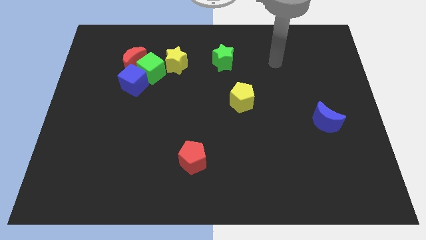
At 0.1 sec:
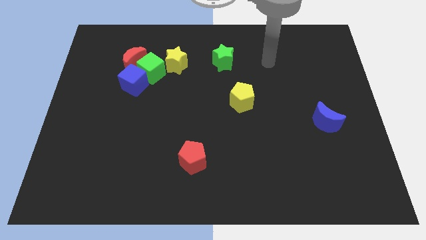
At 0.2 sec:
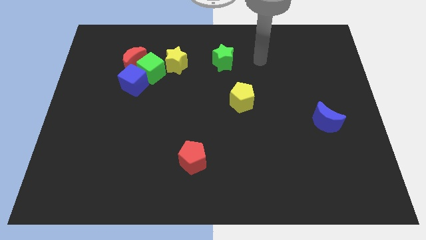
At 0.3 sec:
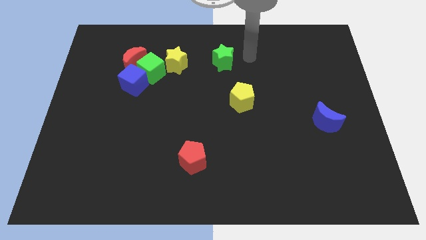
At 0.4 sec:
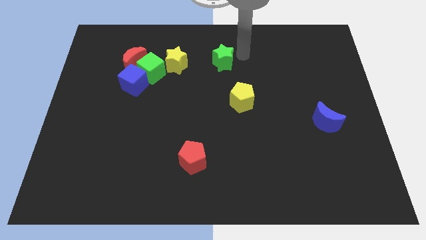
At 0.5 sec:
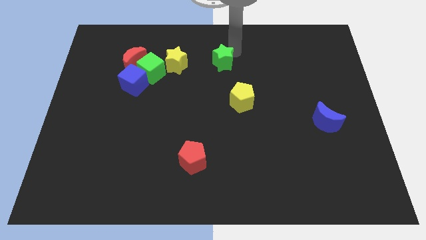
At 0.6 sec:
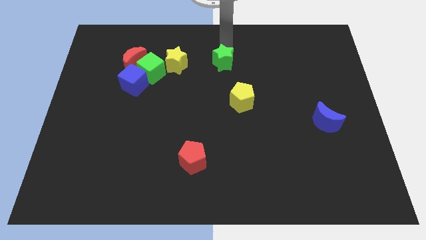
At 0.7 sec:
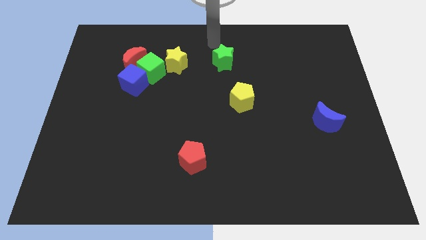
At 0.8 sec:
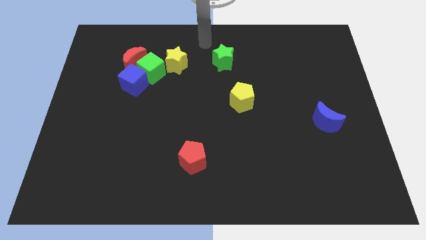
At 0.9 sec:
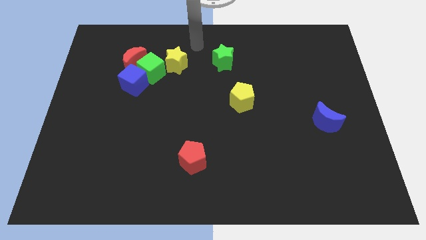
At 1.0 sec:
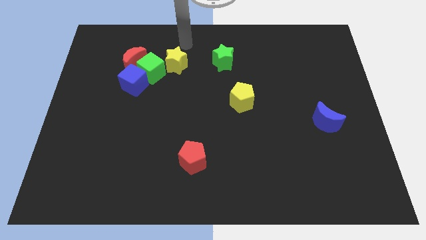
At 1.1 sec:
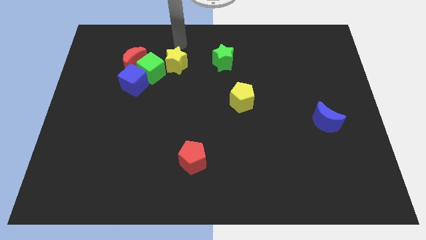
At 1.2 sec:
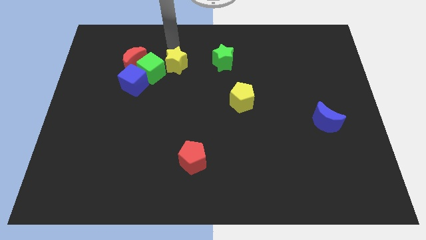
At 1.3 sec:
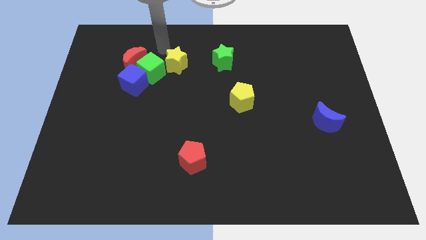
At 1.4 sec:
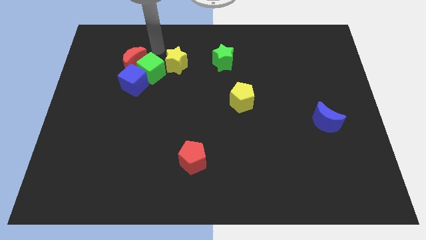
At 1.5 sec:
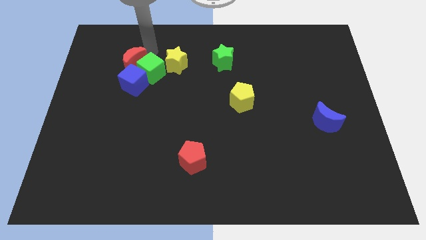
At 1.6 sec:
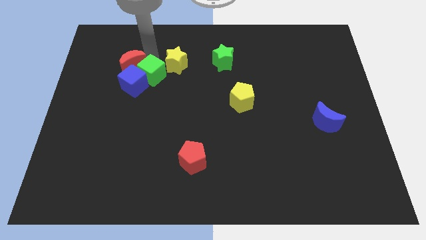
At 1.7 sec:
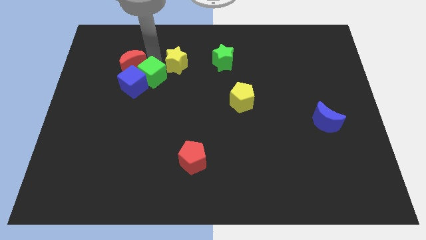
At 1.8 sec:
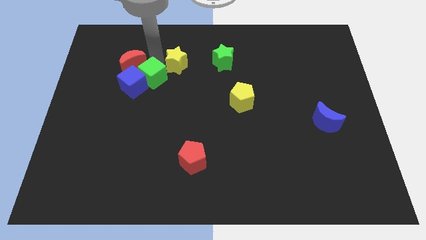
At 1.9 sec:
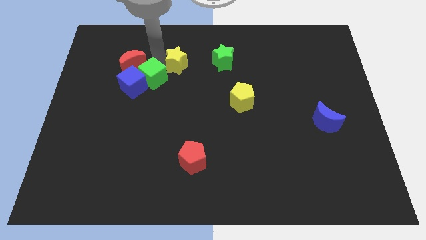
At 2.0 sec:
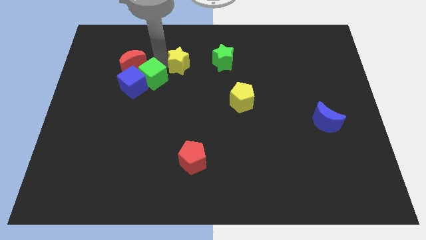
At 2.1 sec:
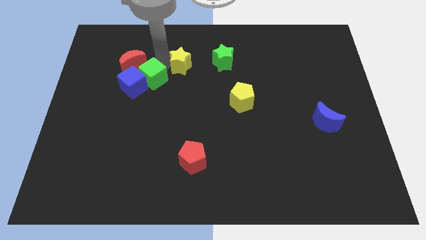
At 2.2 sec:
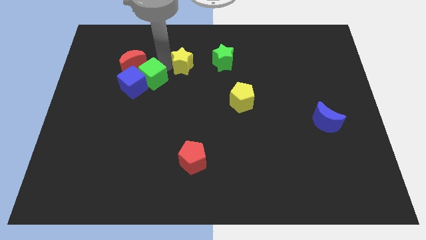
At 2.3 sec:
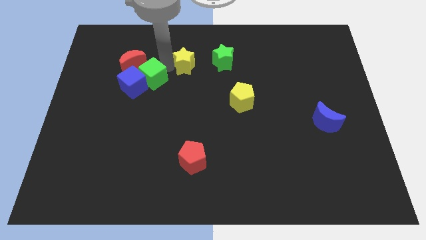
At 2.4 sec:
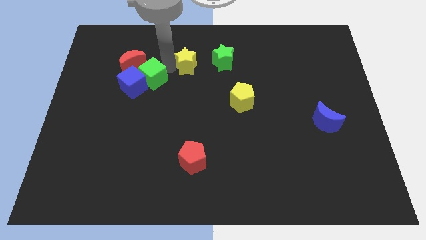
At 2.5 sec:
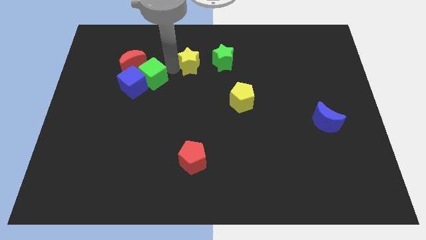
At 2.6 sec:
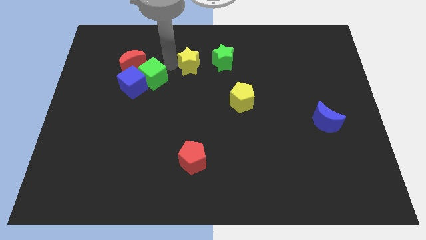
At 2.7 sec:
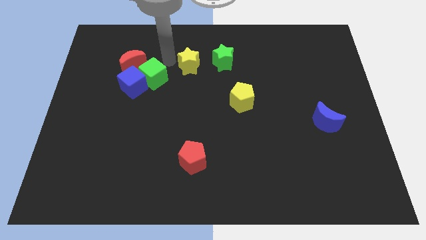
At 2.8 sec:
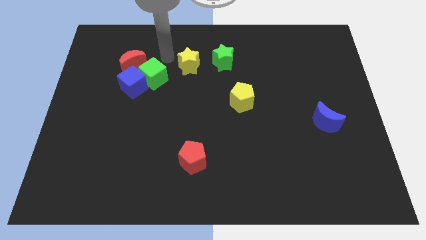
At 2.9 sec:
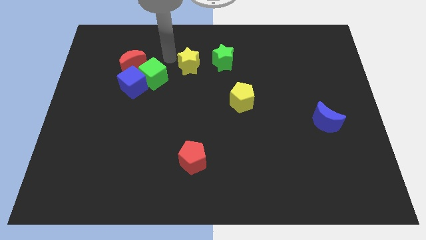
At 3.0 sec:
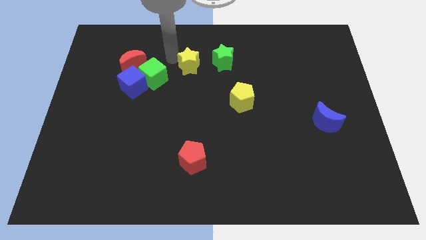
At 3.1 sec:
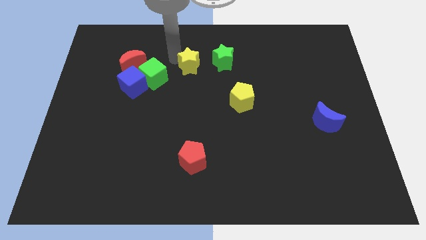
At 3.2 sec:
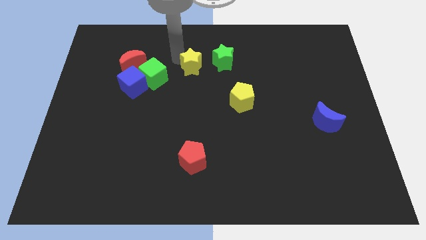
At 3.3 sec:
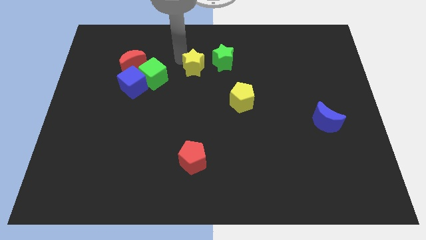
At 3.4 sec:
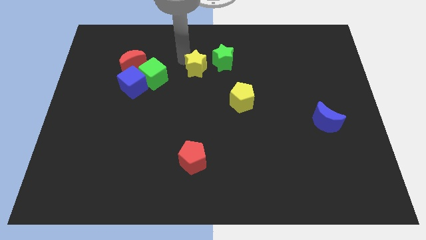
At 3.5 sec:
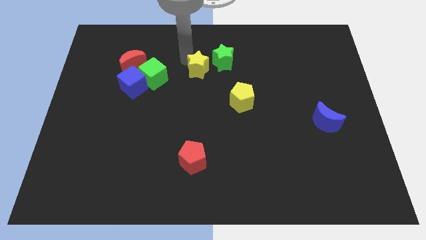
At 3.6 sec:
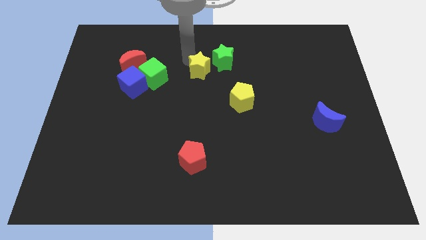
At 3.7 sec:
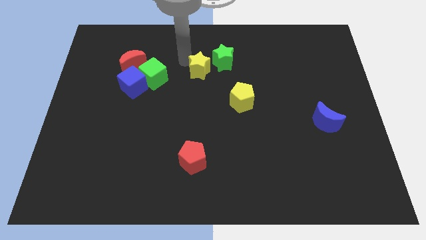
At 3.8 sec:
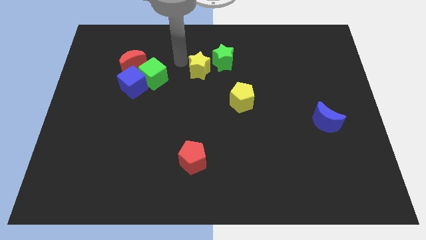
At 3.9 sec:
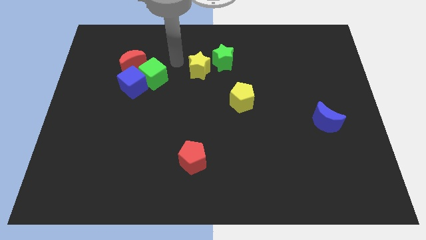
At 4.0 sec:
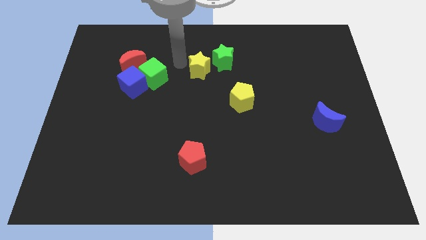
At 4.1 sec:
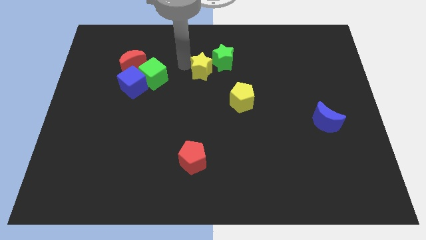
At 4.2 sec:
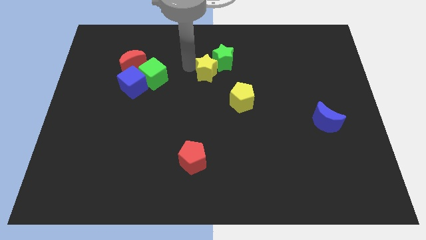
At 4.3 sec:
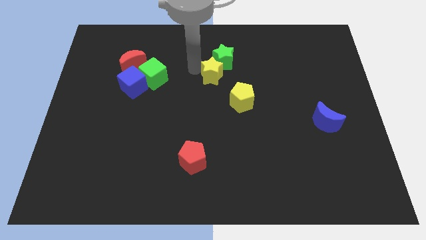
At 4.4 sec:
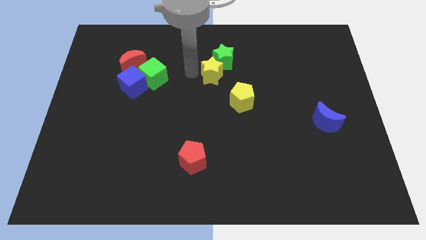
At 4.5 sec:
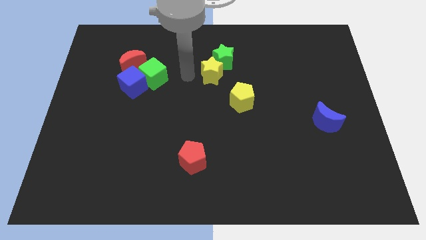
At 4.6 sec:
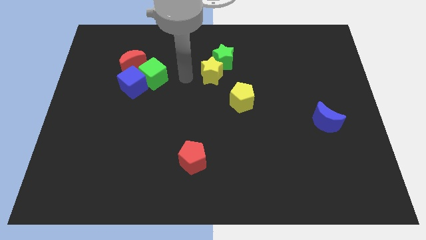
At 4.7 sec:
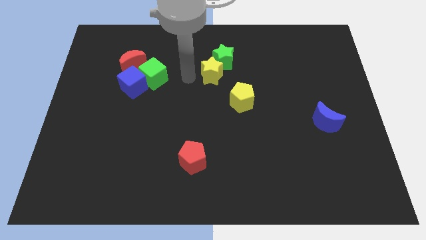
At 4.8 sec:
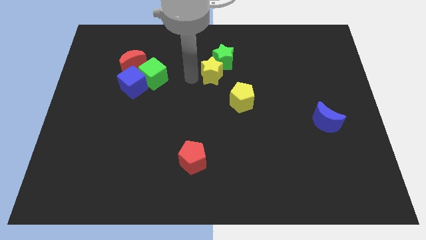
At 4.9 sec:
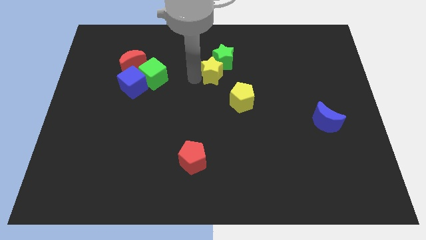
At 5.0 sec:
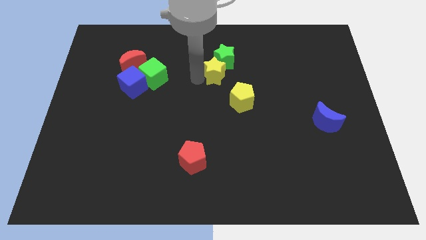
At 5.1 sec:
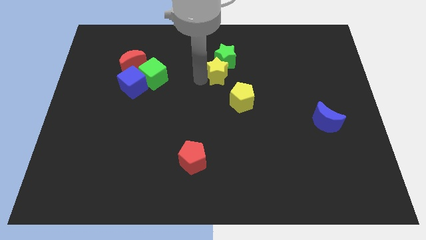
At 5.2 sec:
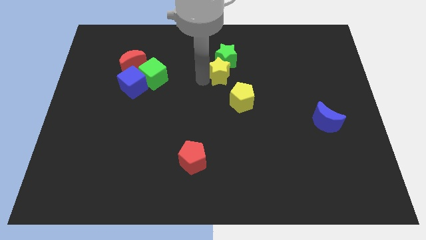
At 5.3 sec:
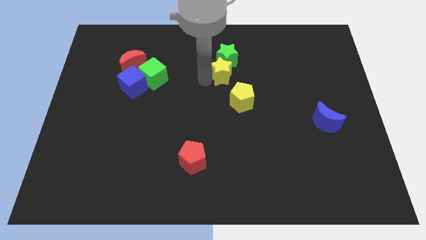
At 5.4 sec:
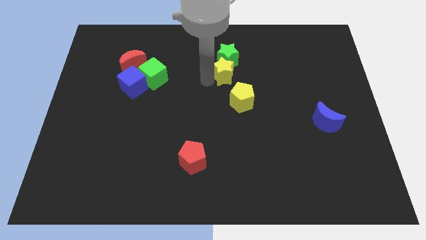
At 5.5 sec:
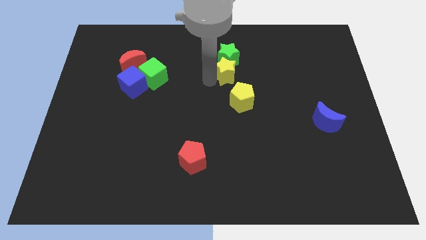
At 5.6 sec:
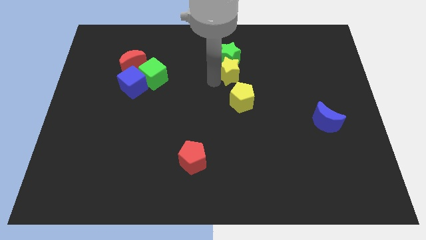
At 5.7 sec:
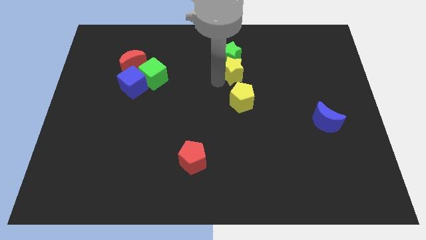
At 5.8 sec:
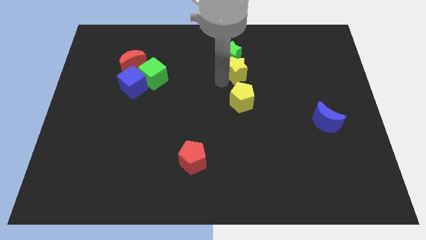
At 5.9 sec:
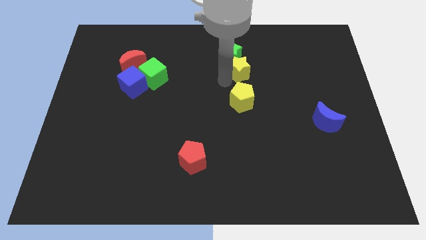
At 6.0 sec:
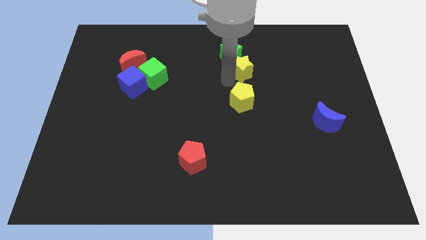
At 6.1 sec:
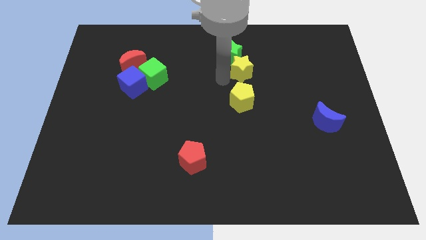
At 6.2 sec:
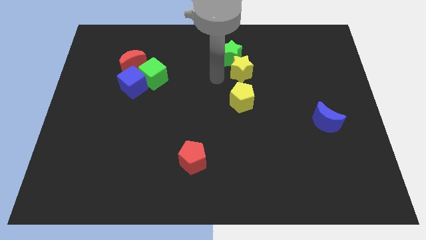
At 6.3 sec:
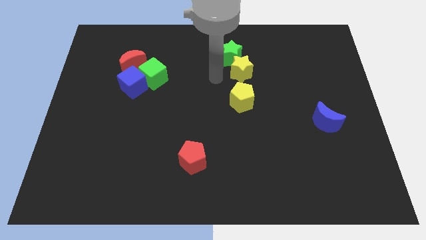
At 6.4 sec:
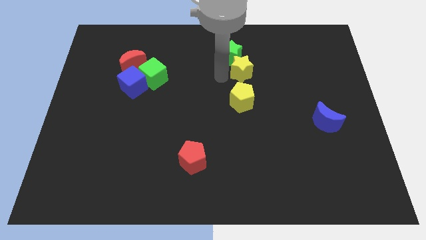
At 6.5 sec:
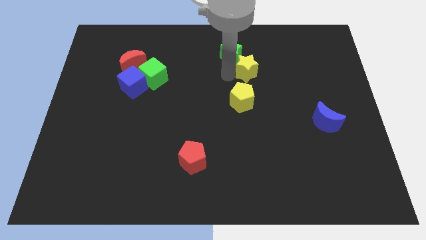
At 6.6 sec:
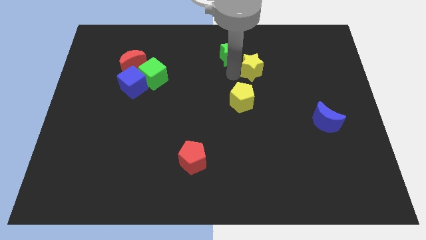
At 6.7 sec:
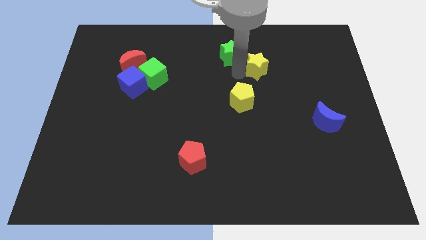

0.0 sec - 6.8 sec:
push the yellow star to the right

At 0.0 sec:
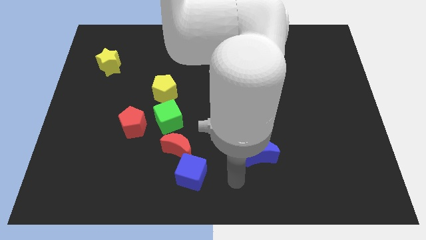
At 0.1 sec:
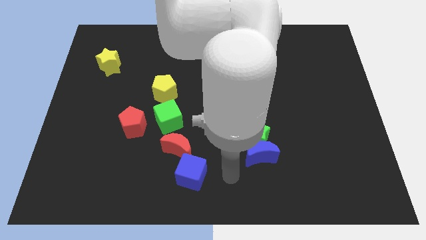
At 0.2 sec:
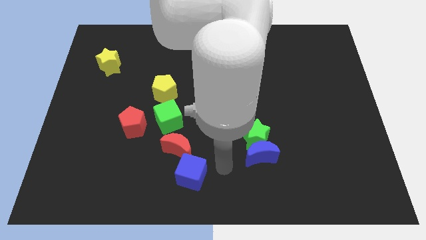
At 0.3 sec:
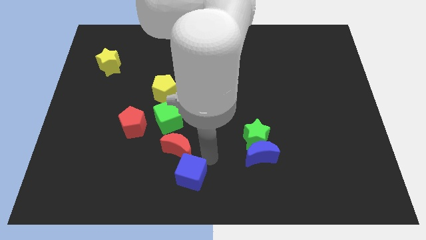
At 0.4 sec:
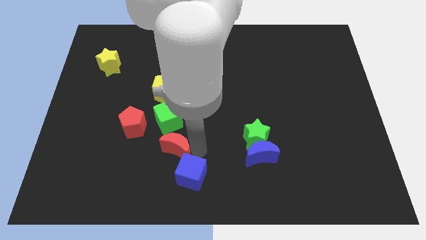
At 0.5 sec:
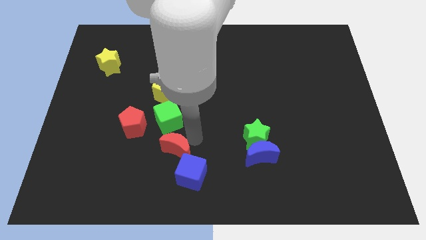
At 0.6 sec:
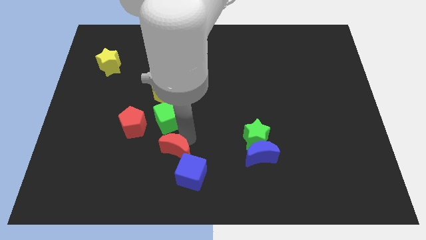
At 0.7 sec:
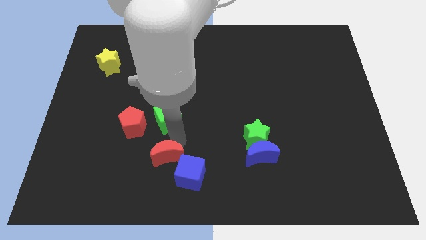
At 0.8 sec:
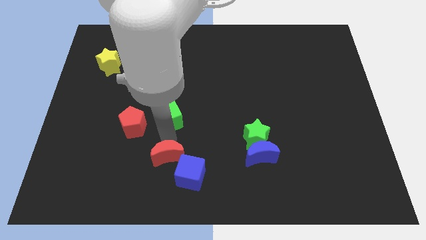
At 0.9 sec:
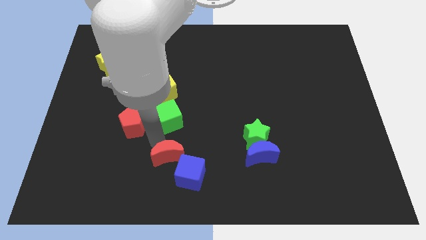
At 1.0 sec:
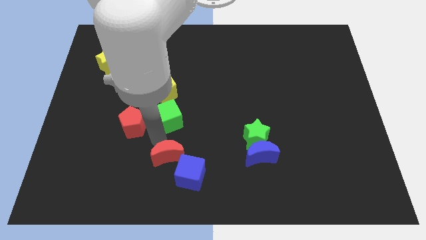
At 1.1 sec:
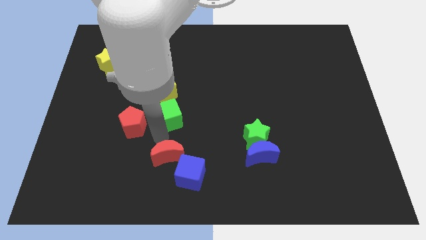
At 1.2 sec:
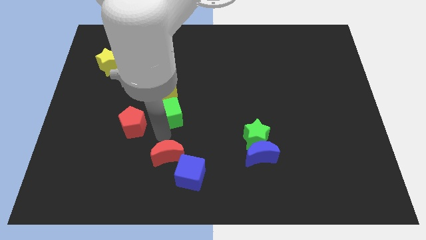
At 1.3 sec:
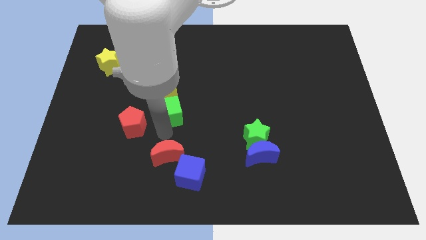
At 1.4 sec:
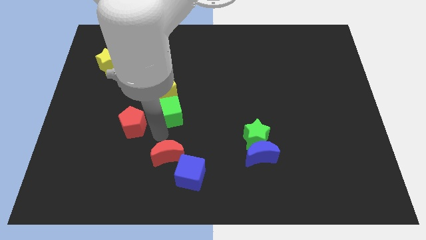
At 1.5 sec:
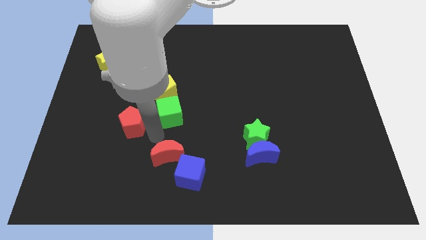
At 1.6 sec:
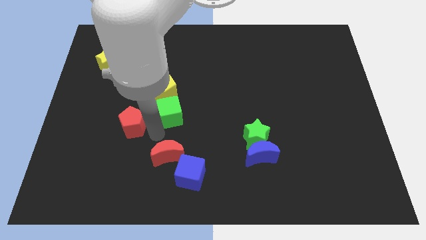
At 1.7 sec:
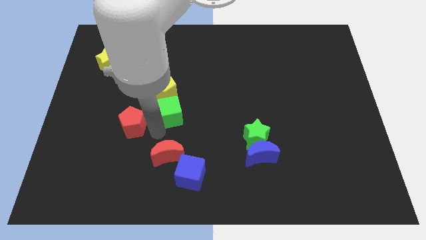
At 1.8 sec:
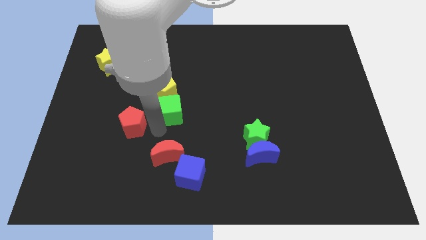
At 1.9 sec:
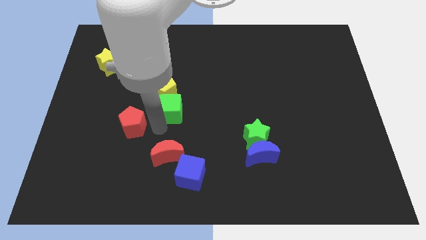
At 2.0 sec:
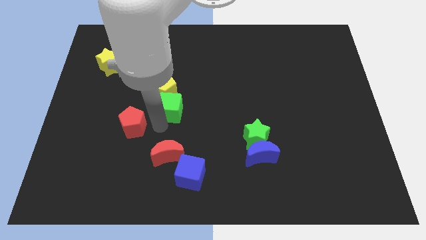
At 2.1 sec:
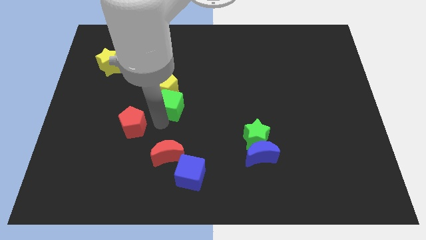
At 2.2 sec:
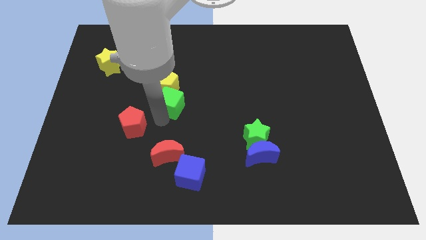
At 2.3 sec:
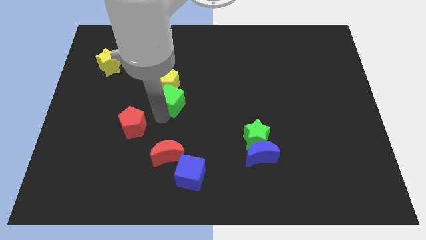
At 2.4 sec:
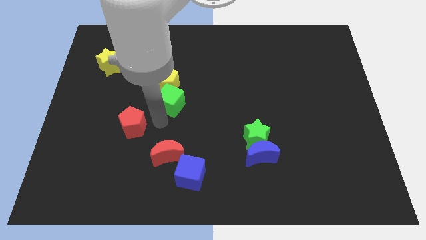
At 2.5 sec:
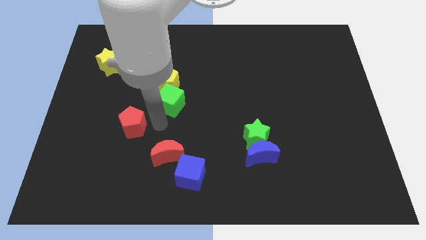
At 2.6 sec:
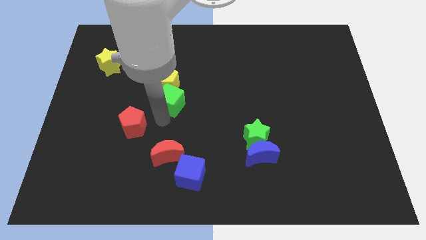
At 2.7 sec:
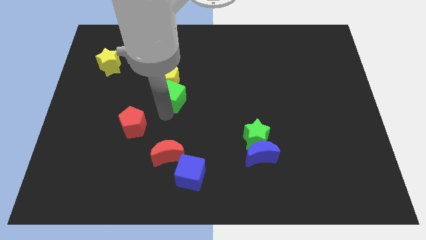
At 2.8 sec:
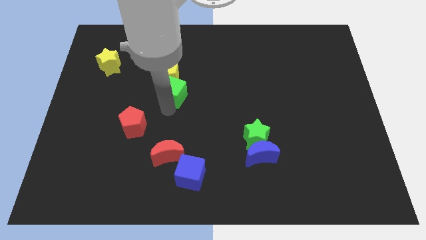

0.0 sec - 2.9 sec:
push the green cube up a little bit
